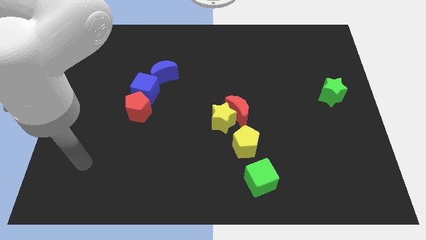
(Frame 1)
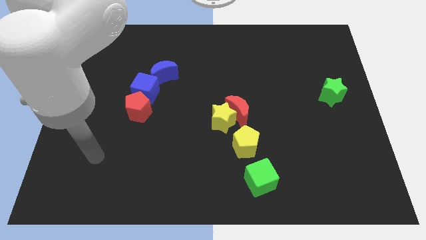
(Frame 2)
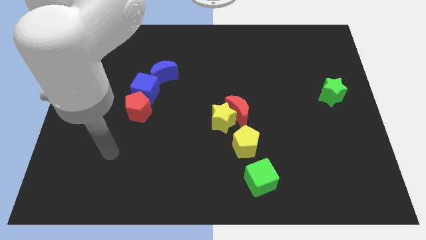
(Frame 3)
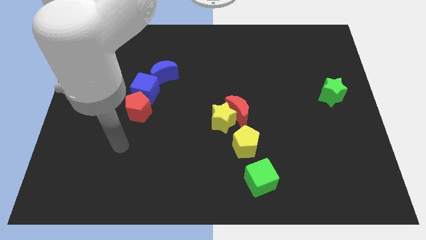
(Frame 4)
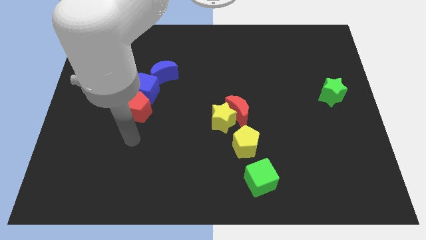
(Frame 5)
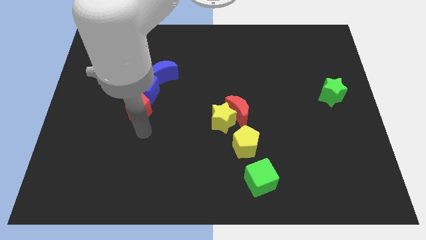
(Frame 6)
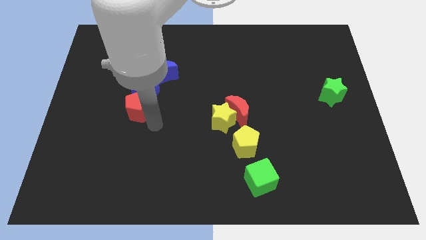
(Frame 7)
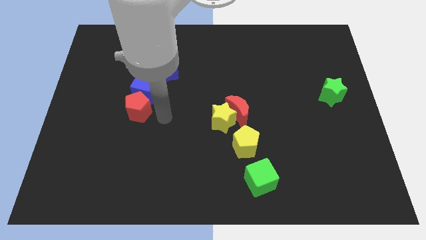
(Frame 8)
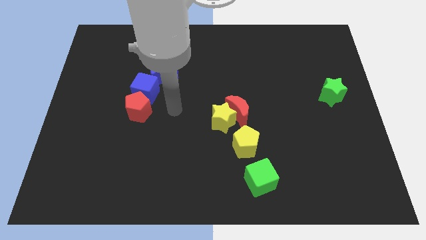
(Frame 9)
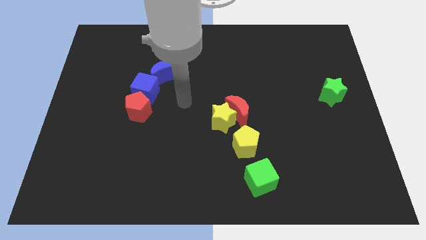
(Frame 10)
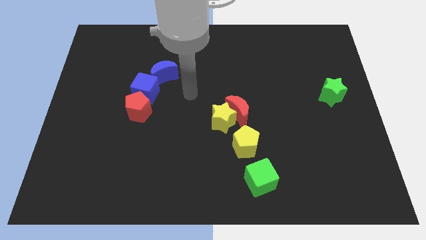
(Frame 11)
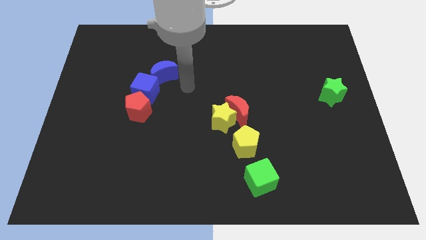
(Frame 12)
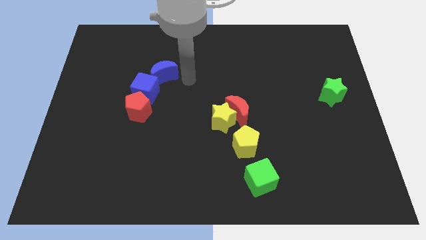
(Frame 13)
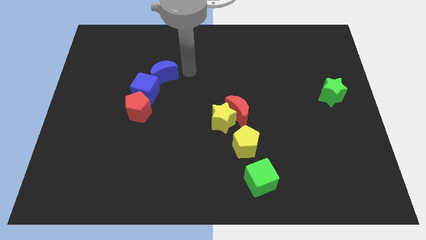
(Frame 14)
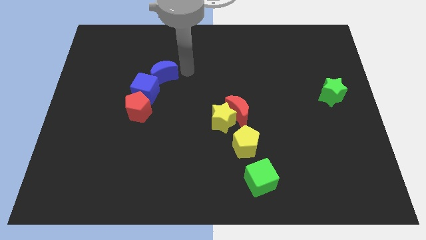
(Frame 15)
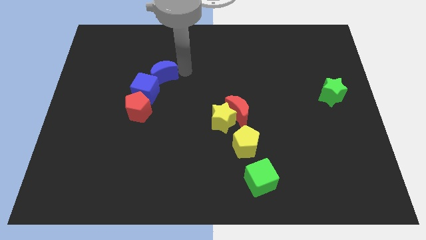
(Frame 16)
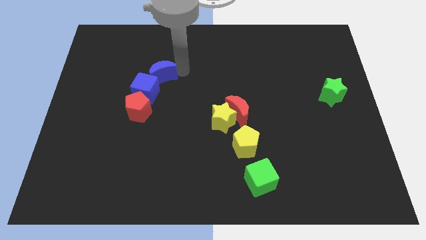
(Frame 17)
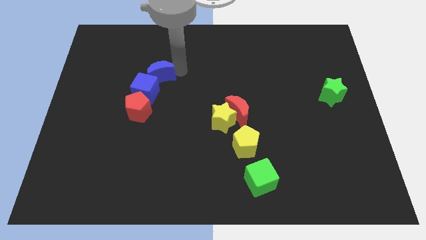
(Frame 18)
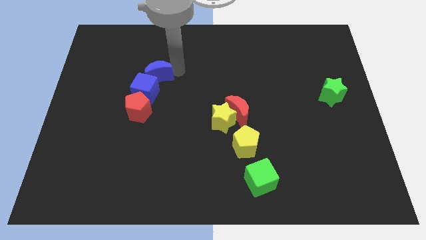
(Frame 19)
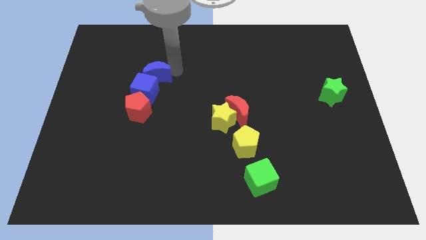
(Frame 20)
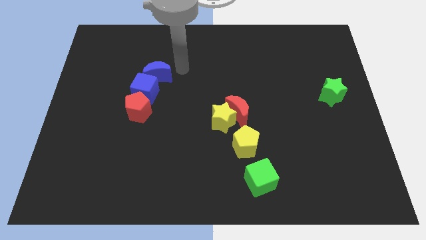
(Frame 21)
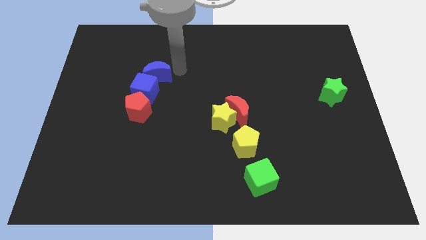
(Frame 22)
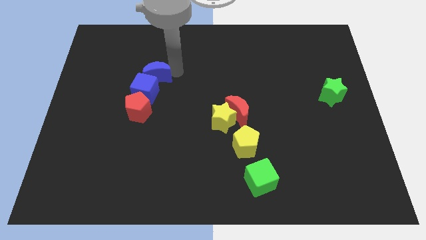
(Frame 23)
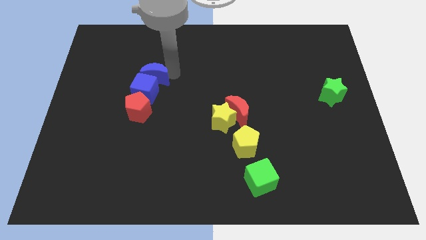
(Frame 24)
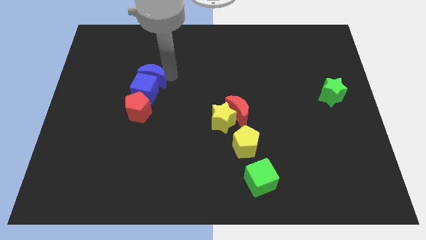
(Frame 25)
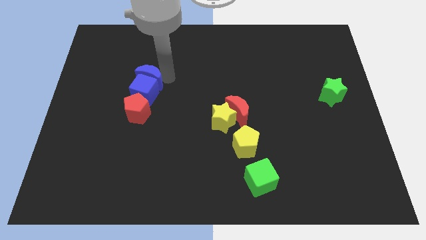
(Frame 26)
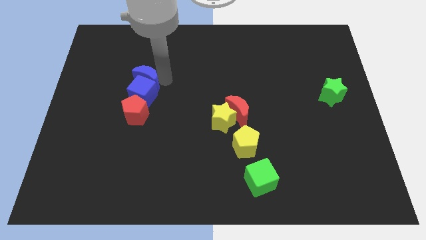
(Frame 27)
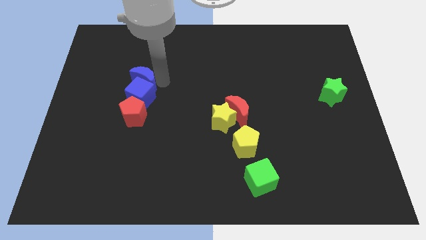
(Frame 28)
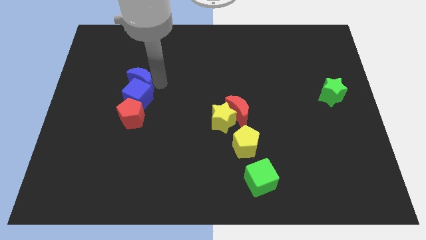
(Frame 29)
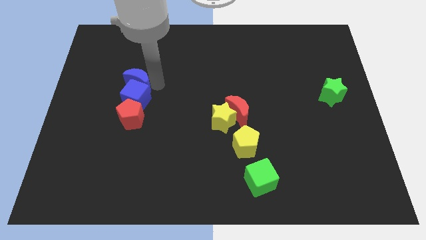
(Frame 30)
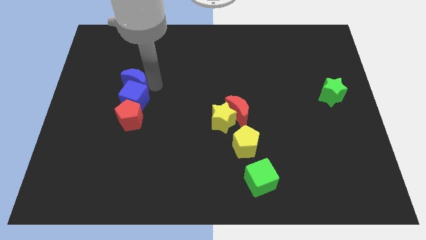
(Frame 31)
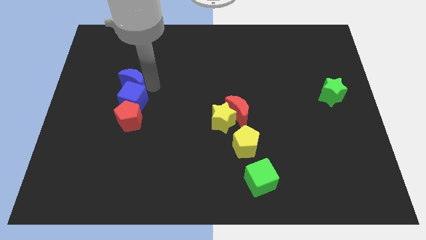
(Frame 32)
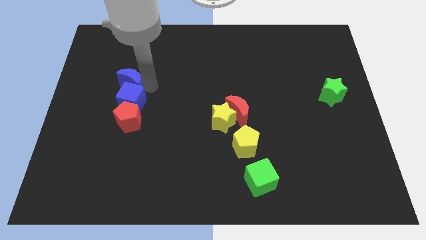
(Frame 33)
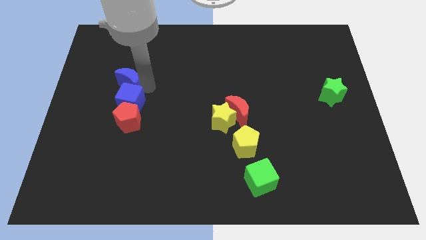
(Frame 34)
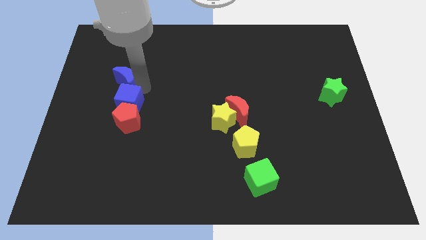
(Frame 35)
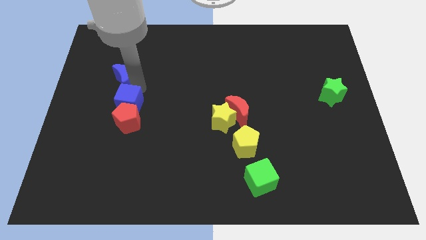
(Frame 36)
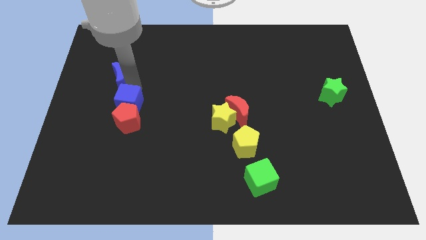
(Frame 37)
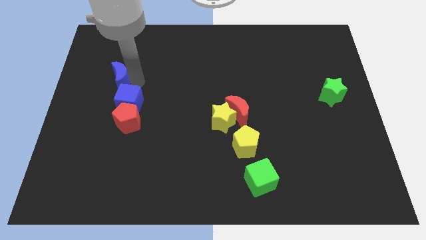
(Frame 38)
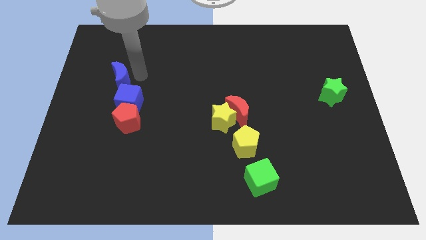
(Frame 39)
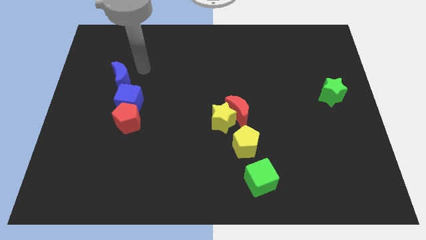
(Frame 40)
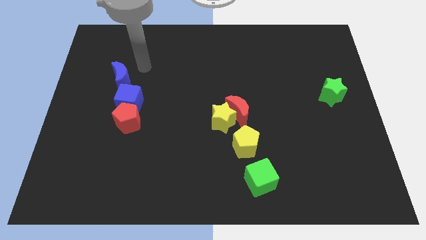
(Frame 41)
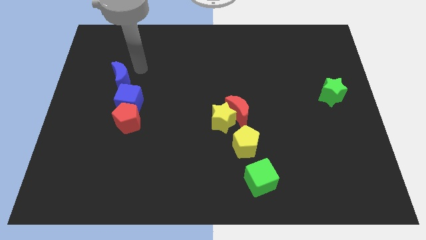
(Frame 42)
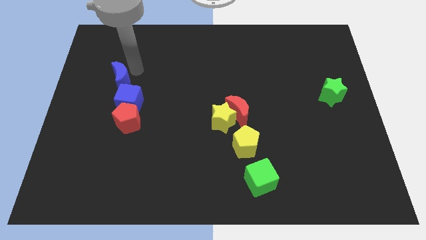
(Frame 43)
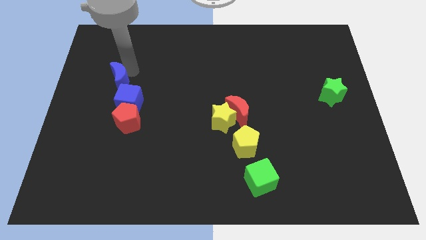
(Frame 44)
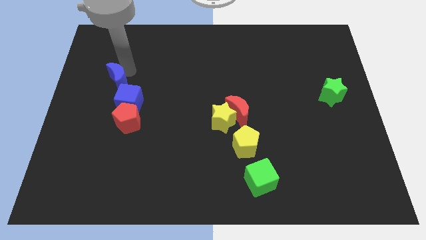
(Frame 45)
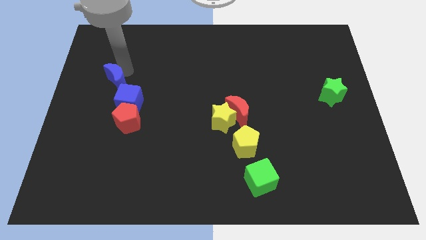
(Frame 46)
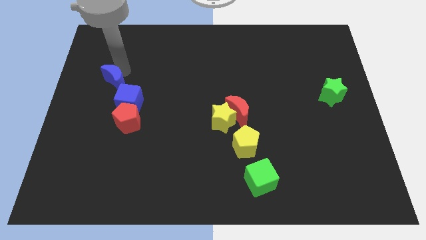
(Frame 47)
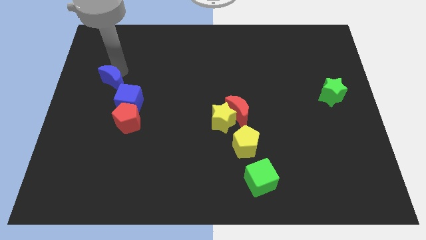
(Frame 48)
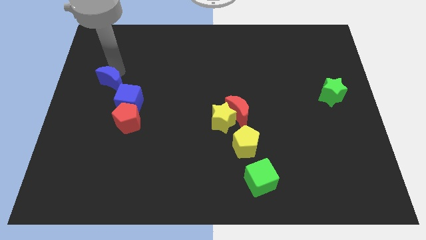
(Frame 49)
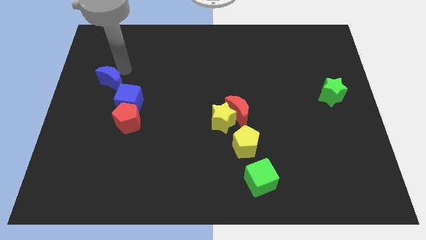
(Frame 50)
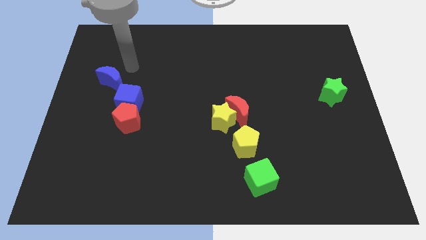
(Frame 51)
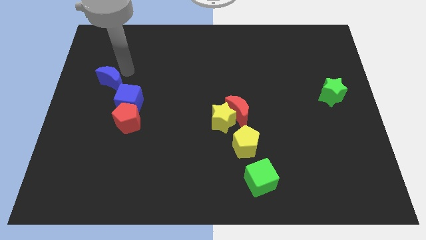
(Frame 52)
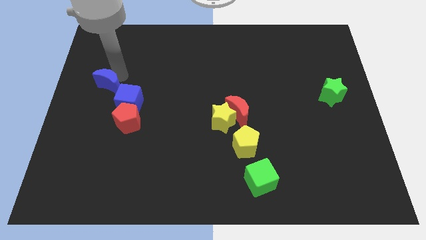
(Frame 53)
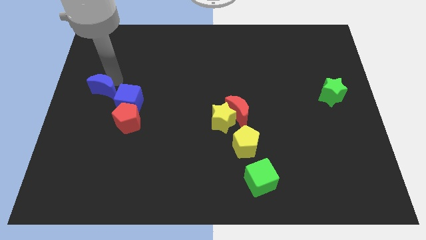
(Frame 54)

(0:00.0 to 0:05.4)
move the blue moon to the left side of the blue cube

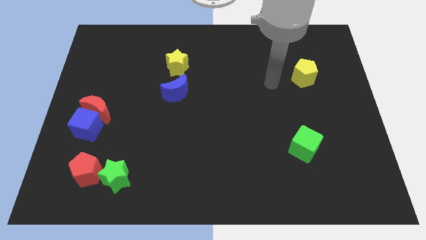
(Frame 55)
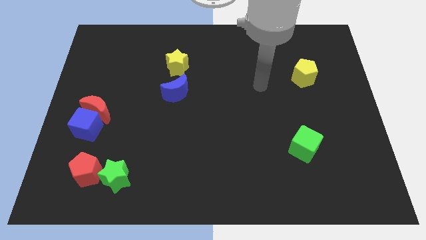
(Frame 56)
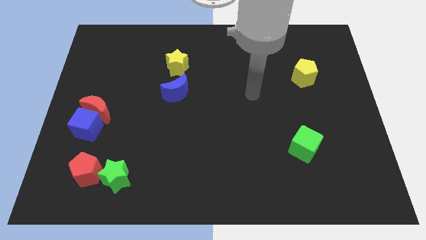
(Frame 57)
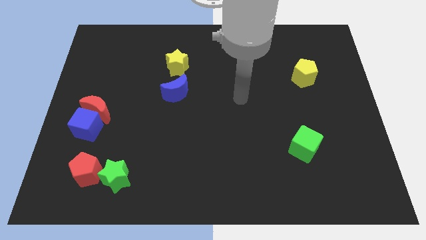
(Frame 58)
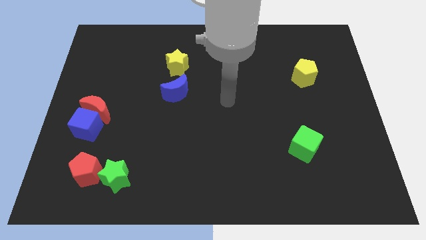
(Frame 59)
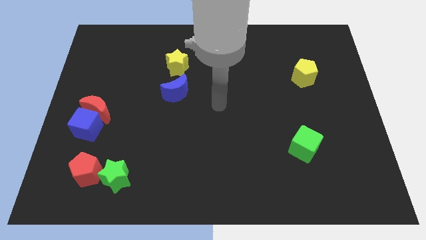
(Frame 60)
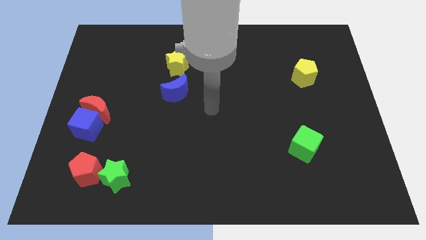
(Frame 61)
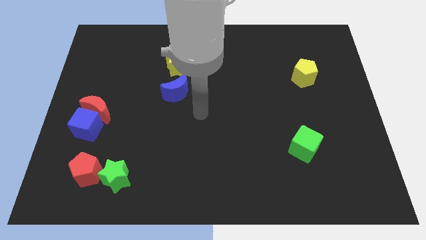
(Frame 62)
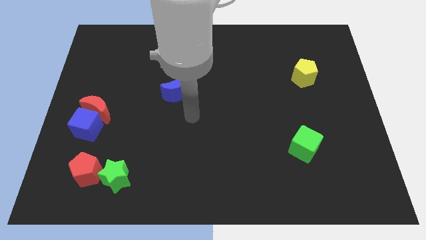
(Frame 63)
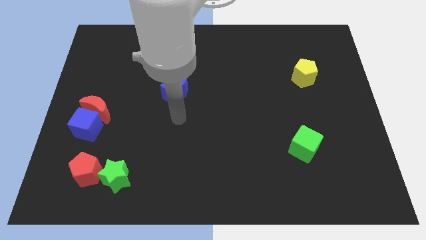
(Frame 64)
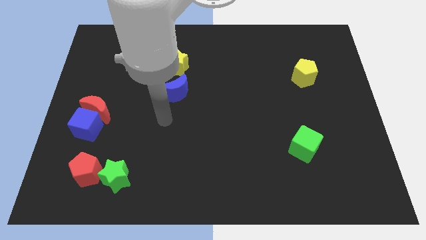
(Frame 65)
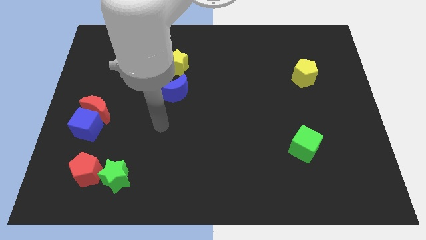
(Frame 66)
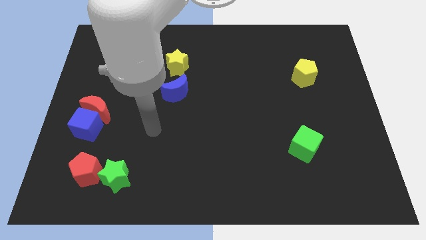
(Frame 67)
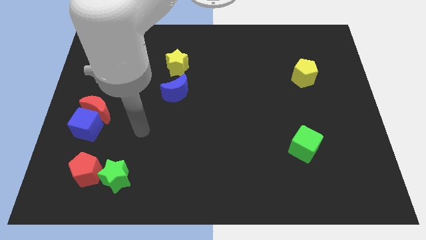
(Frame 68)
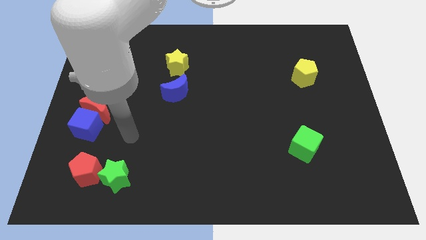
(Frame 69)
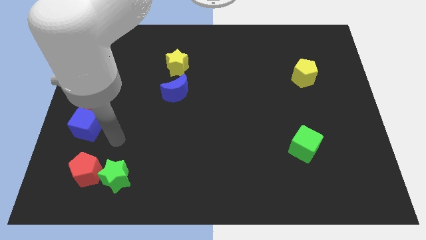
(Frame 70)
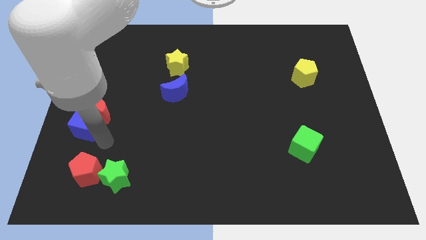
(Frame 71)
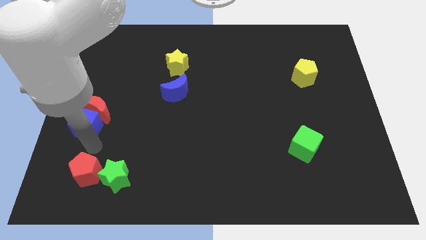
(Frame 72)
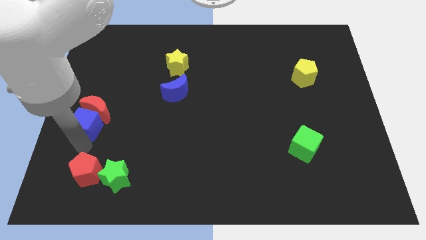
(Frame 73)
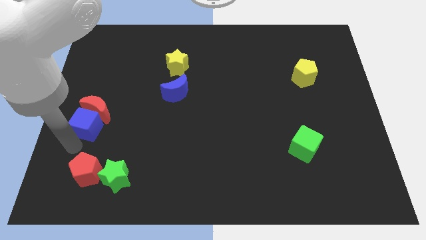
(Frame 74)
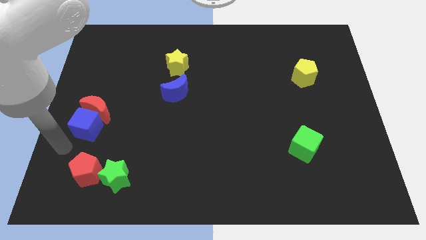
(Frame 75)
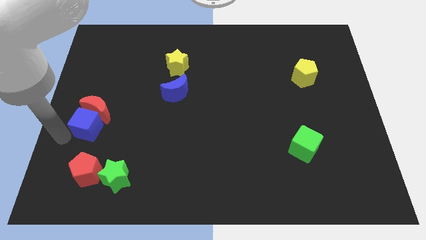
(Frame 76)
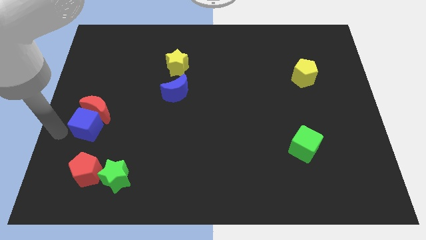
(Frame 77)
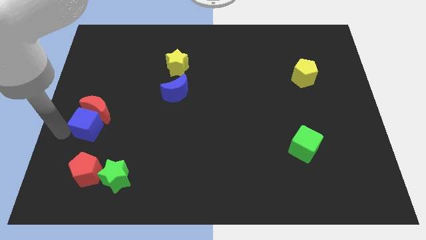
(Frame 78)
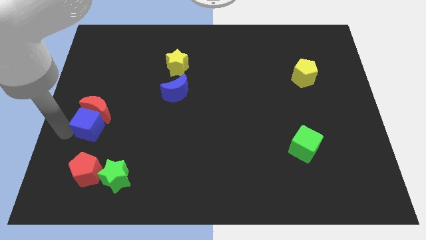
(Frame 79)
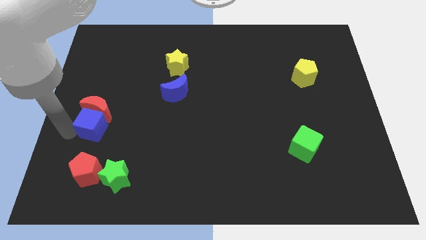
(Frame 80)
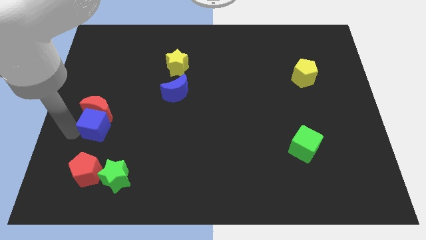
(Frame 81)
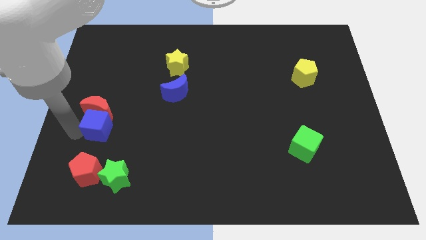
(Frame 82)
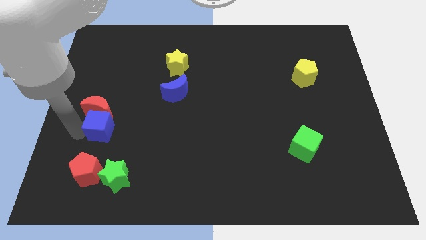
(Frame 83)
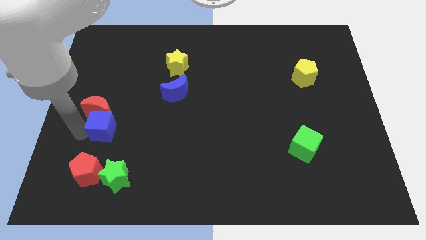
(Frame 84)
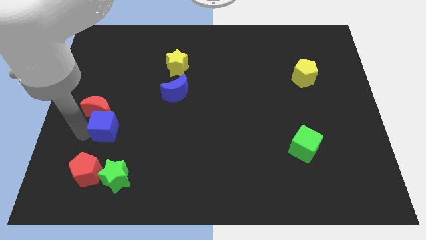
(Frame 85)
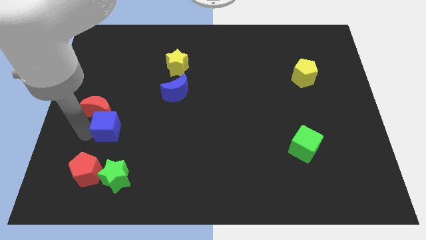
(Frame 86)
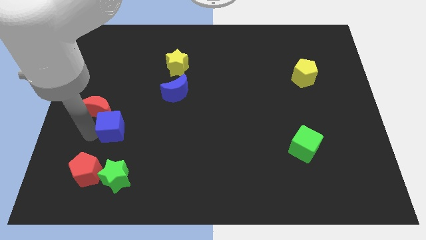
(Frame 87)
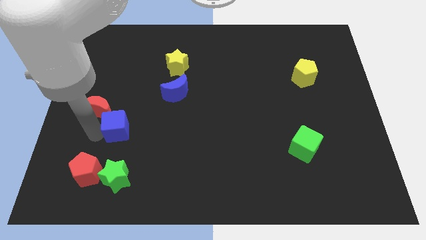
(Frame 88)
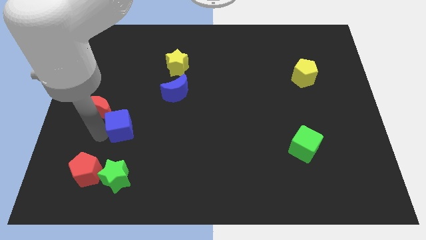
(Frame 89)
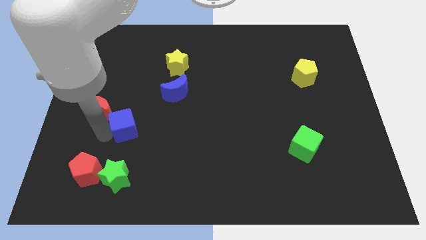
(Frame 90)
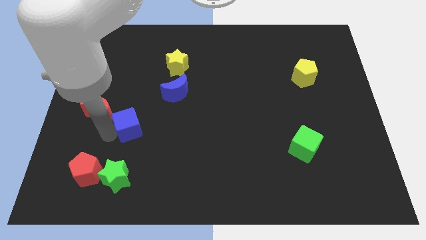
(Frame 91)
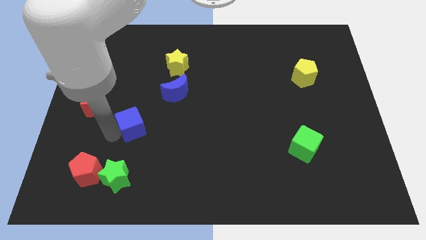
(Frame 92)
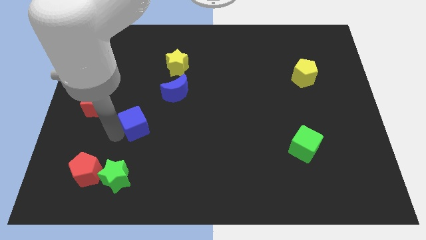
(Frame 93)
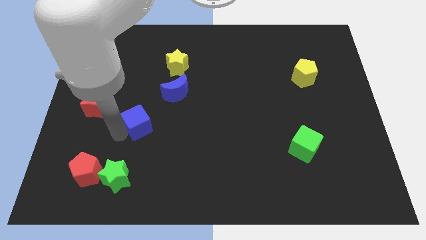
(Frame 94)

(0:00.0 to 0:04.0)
put the blue cube diagonally down and to the left of the blue moon
